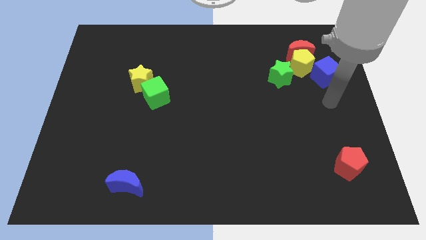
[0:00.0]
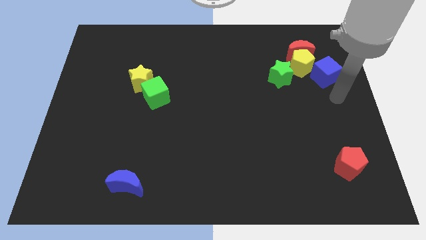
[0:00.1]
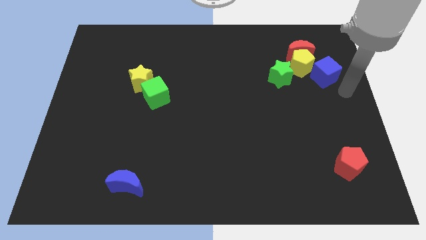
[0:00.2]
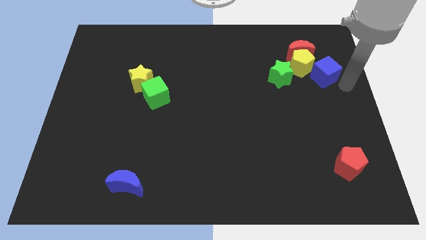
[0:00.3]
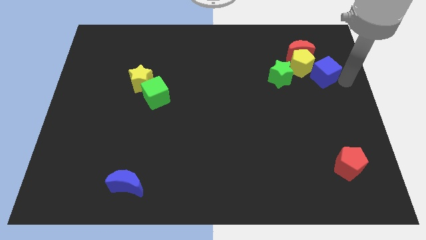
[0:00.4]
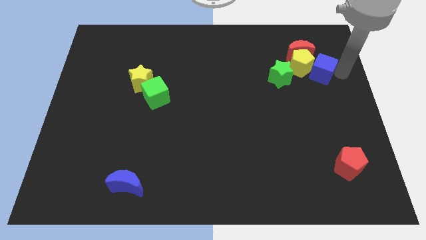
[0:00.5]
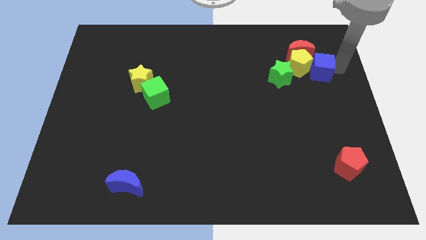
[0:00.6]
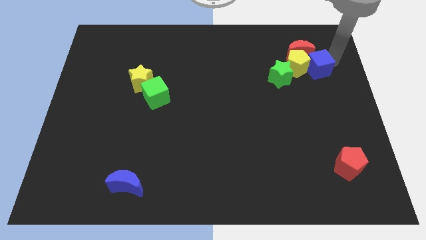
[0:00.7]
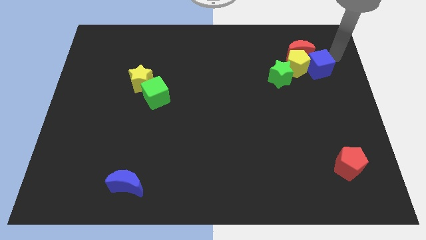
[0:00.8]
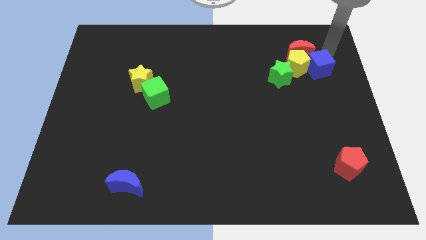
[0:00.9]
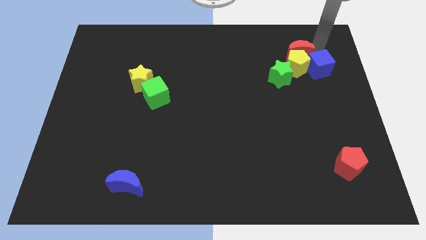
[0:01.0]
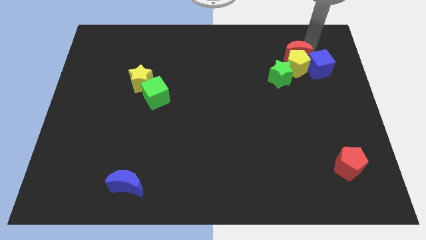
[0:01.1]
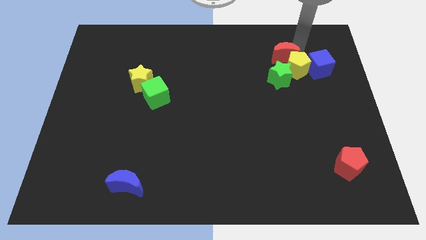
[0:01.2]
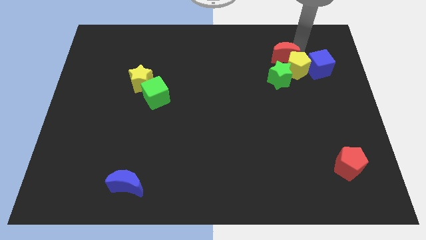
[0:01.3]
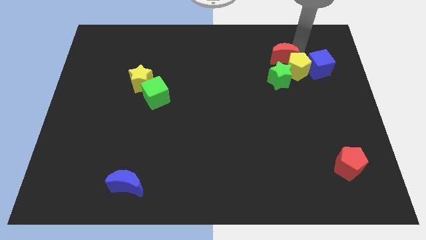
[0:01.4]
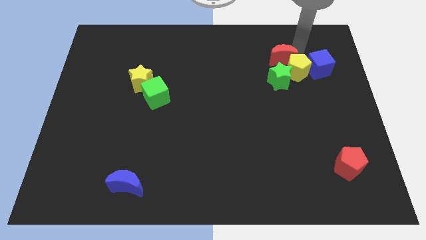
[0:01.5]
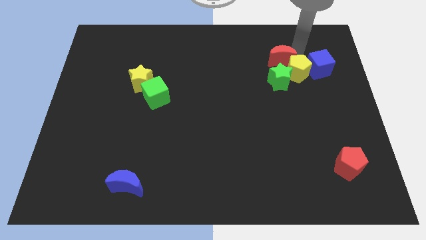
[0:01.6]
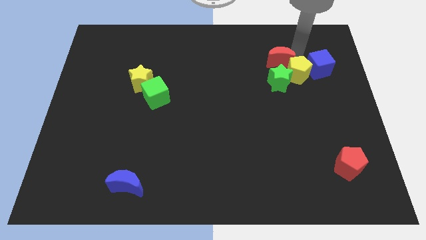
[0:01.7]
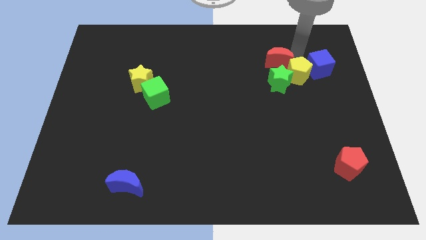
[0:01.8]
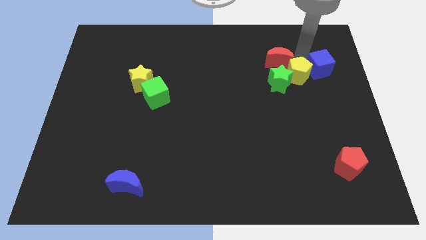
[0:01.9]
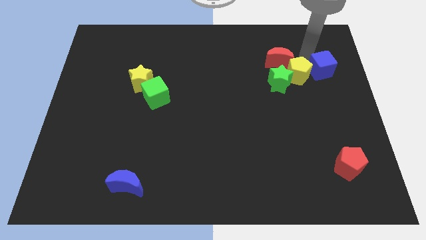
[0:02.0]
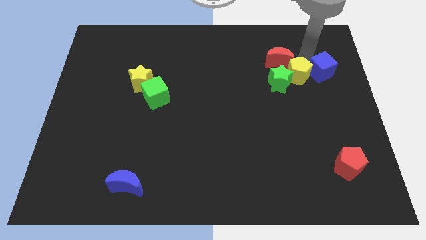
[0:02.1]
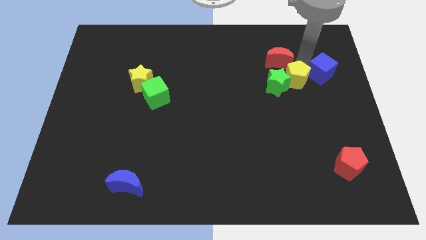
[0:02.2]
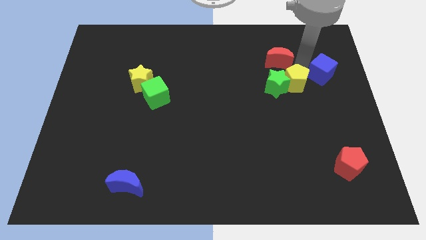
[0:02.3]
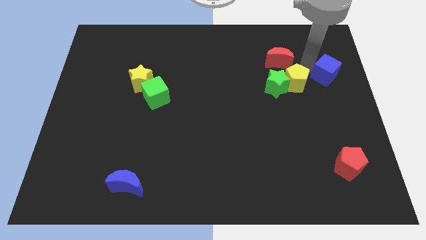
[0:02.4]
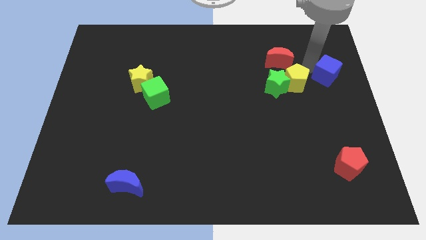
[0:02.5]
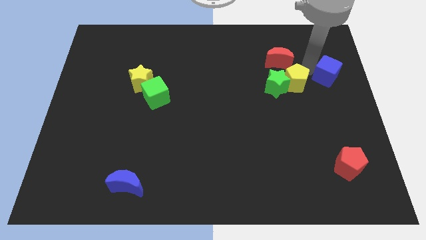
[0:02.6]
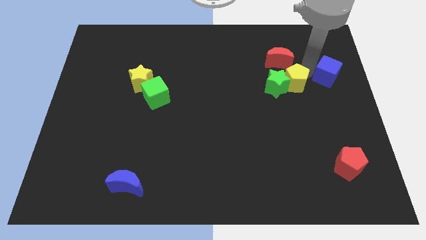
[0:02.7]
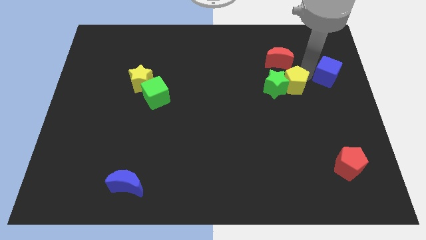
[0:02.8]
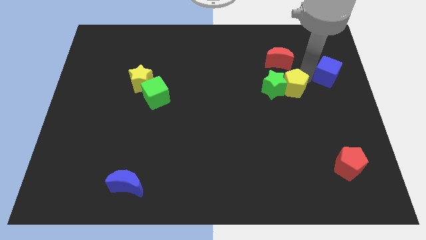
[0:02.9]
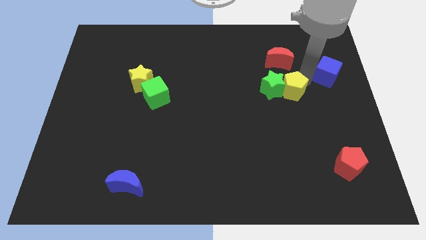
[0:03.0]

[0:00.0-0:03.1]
slide the yellow pentagon downwards and to the left slightly

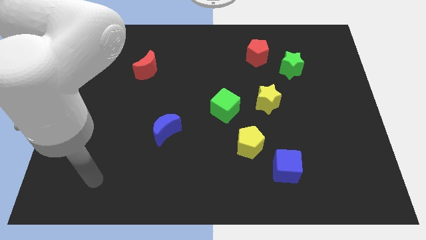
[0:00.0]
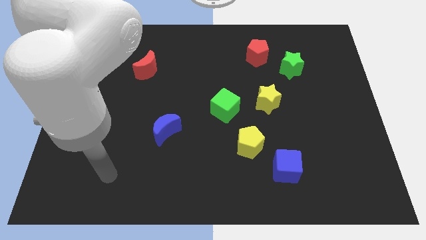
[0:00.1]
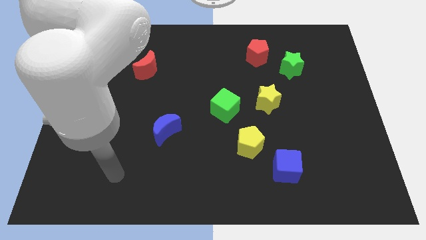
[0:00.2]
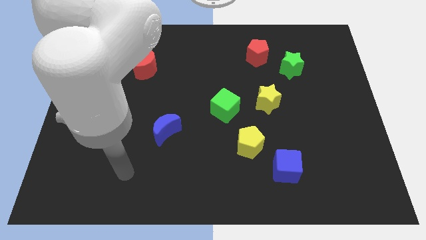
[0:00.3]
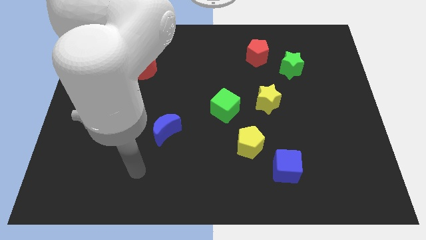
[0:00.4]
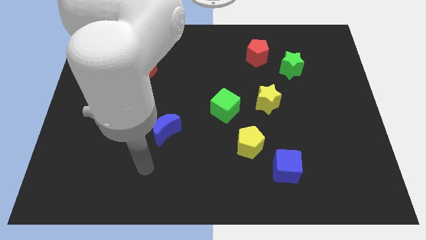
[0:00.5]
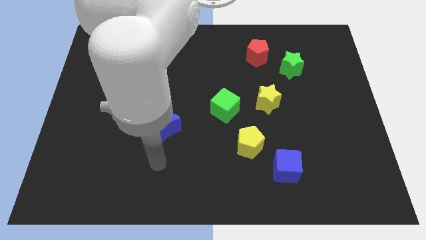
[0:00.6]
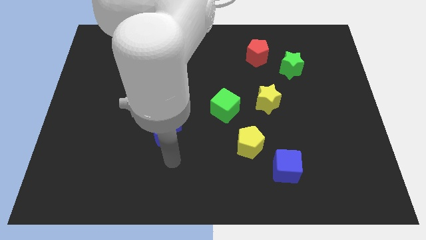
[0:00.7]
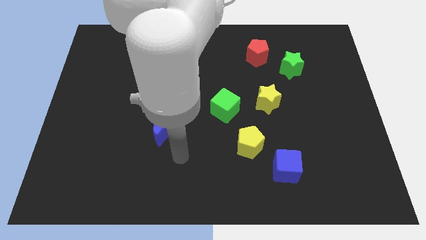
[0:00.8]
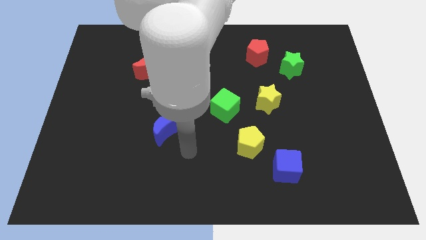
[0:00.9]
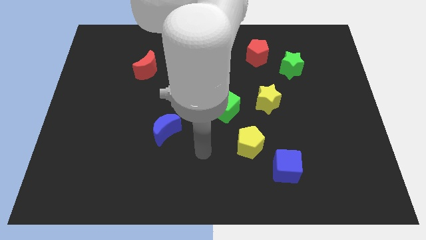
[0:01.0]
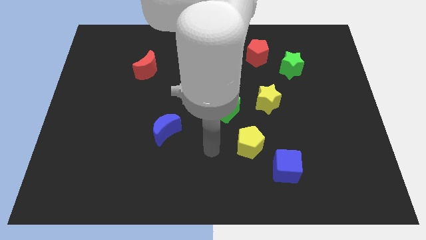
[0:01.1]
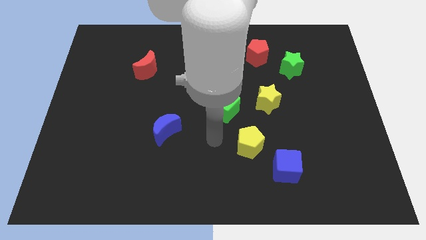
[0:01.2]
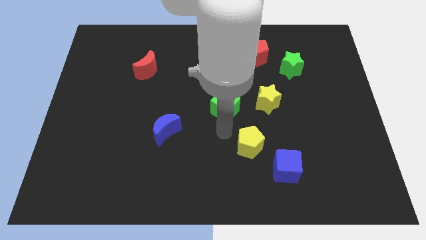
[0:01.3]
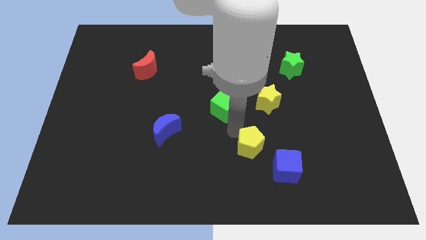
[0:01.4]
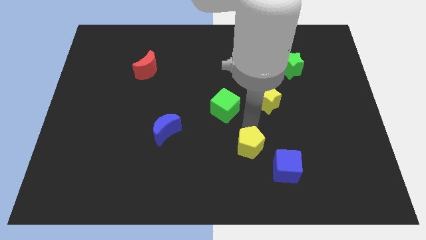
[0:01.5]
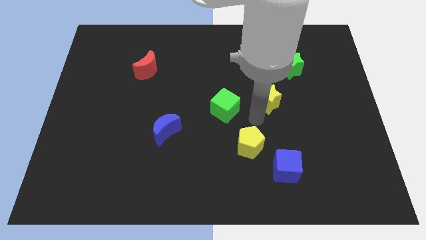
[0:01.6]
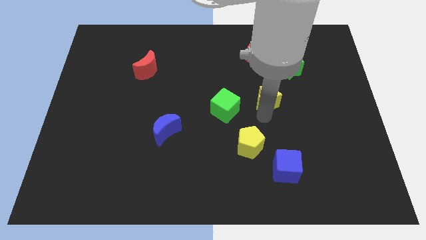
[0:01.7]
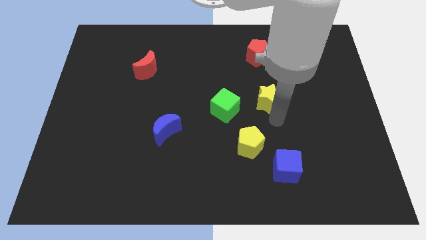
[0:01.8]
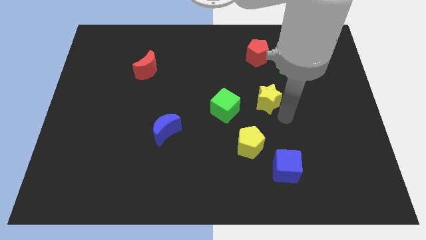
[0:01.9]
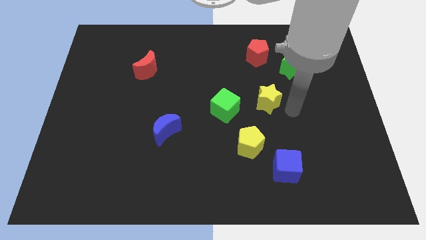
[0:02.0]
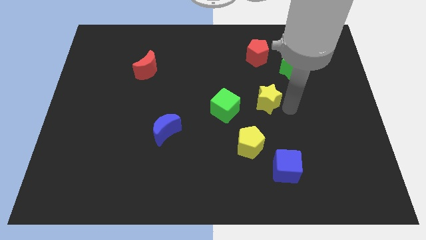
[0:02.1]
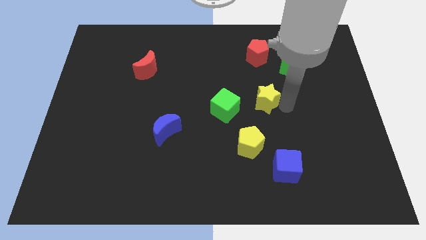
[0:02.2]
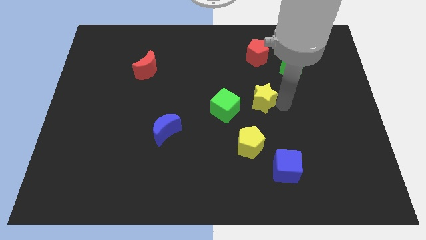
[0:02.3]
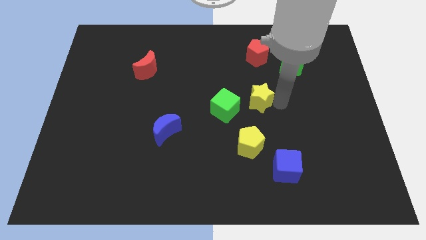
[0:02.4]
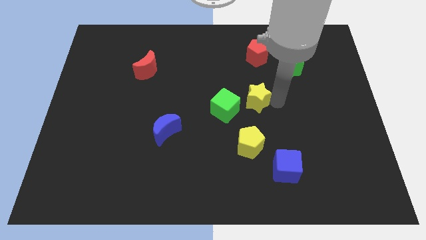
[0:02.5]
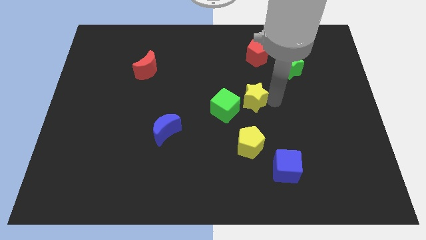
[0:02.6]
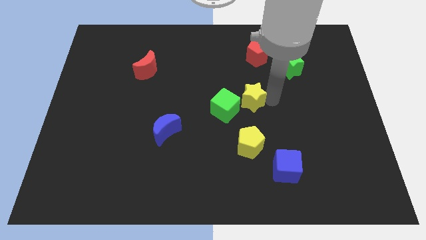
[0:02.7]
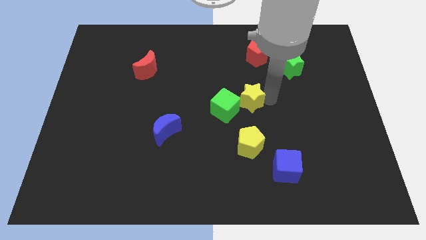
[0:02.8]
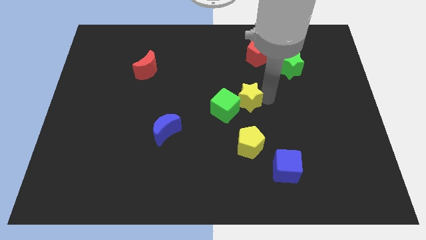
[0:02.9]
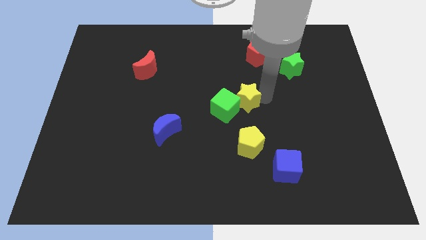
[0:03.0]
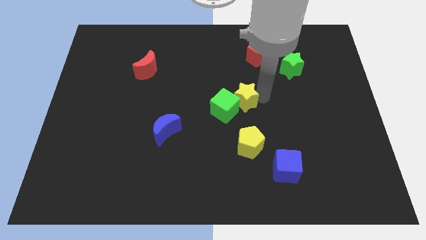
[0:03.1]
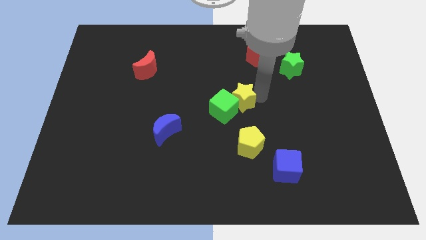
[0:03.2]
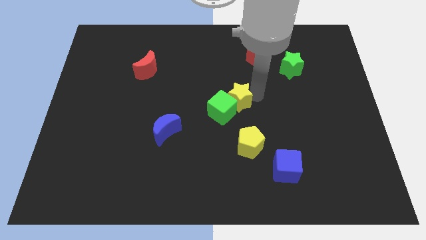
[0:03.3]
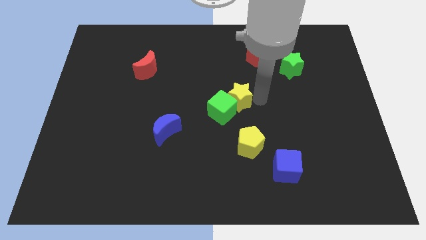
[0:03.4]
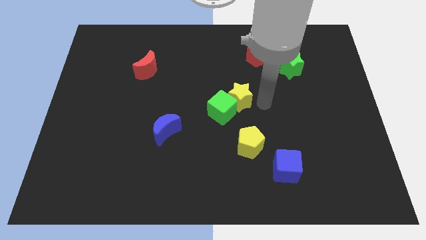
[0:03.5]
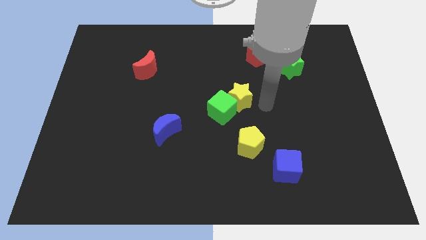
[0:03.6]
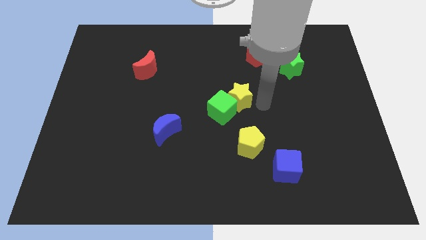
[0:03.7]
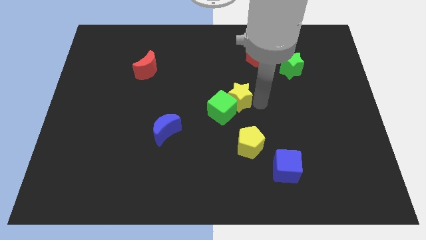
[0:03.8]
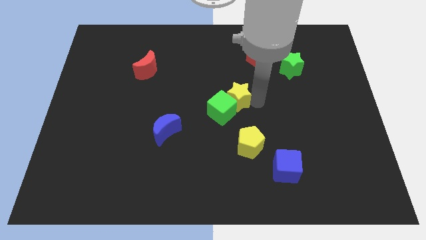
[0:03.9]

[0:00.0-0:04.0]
push the yellow star left somewhat

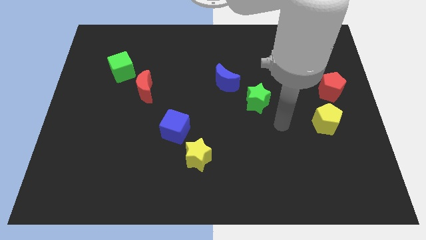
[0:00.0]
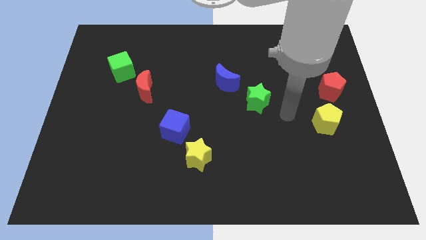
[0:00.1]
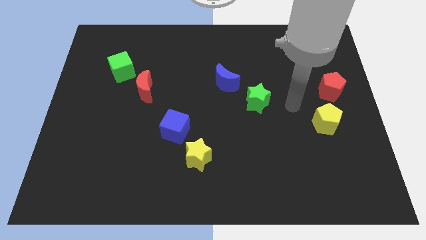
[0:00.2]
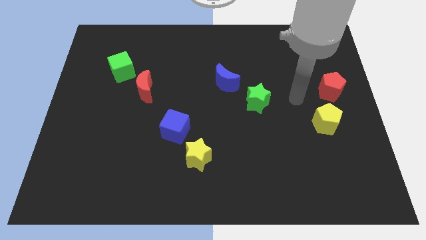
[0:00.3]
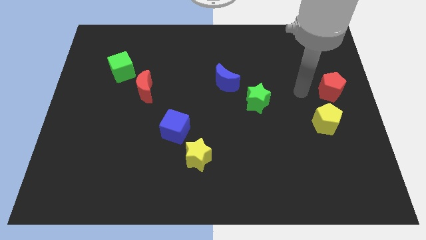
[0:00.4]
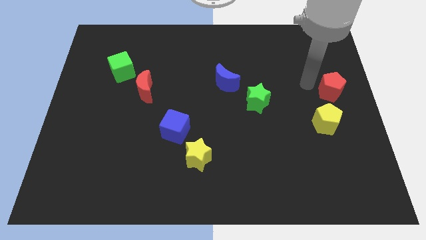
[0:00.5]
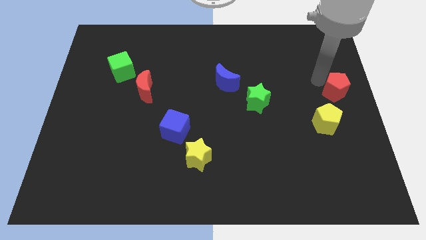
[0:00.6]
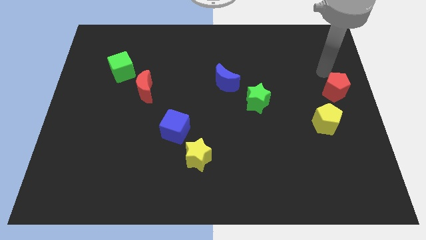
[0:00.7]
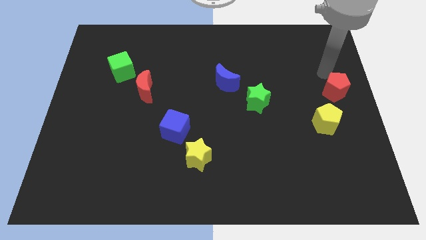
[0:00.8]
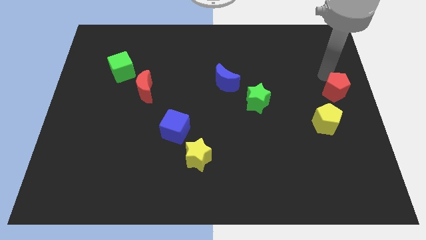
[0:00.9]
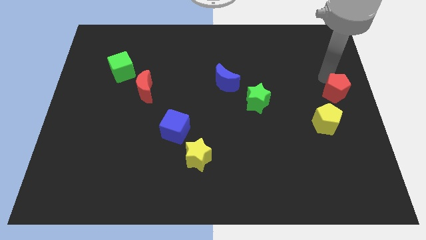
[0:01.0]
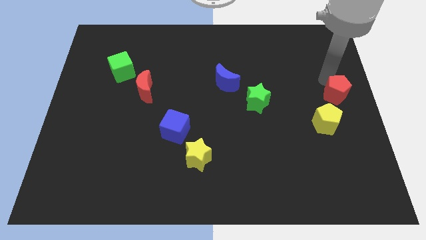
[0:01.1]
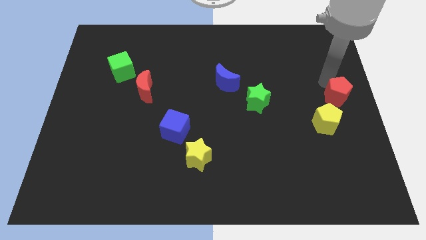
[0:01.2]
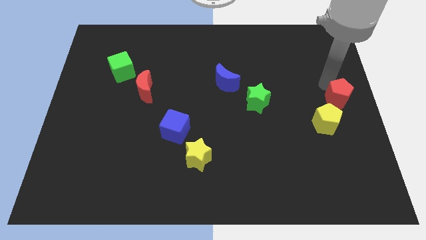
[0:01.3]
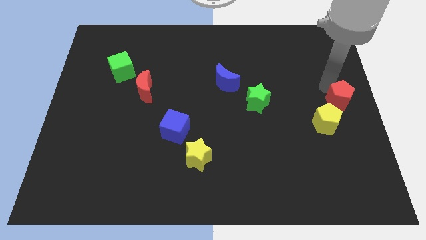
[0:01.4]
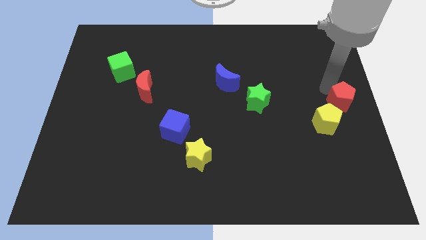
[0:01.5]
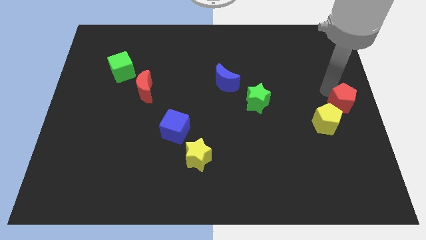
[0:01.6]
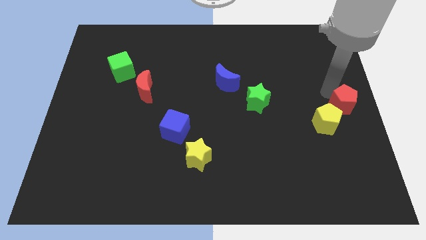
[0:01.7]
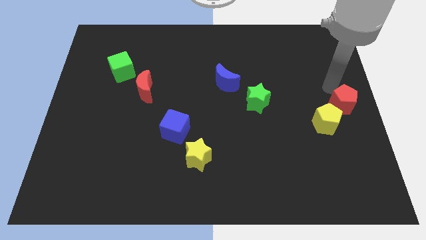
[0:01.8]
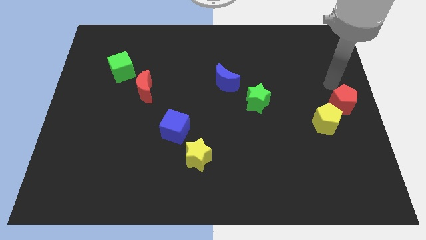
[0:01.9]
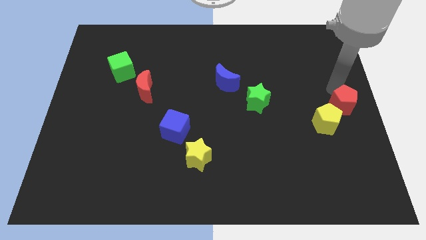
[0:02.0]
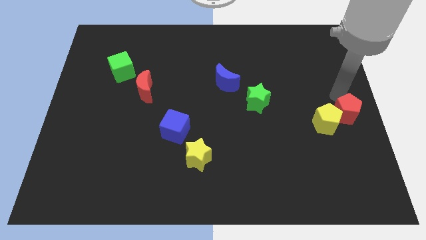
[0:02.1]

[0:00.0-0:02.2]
slide the red pentagon down somewhat
